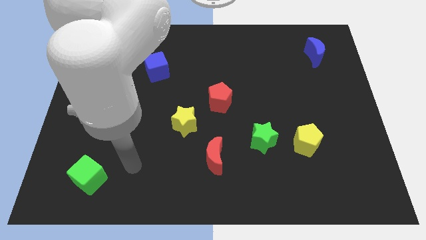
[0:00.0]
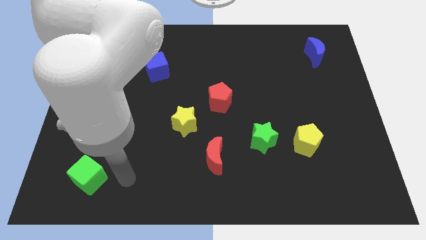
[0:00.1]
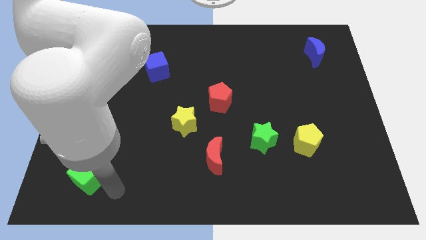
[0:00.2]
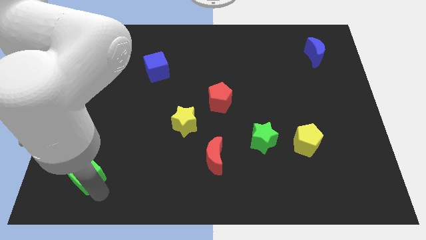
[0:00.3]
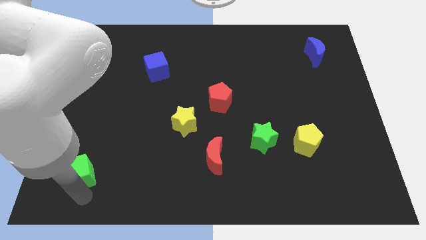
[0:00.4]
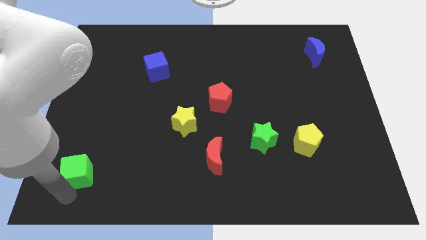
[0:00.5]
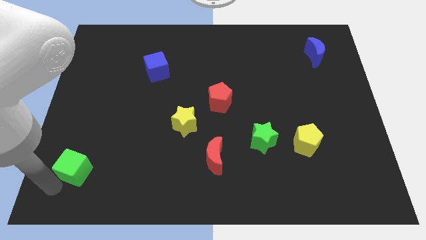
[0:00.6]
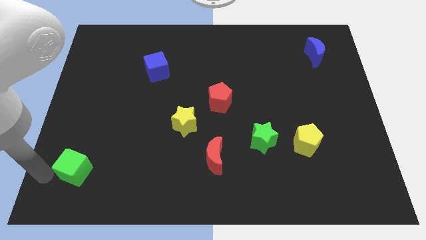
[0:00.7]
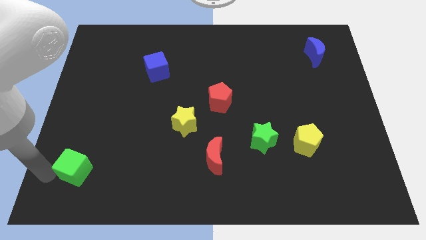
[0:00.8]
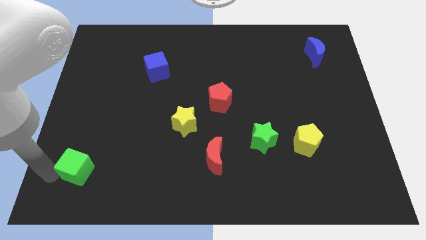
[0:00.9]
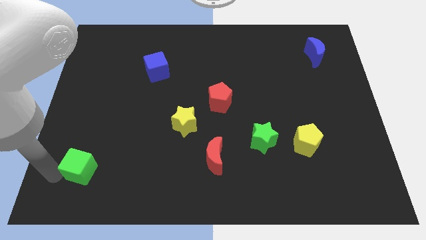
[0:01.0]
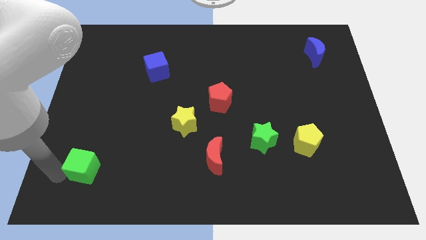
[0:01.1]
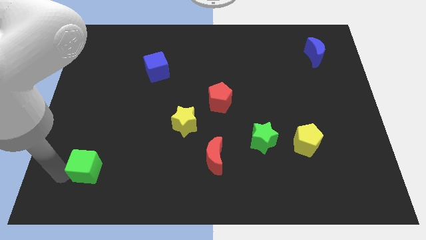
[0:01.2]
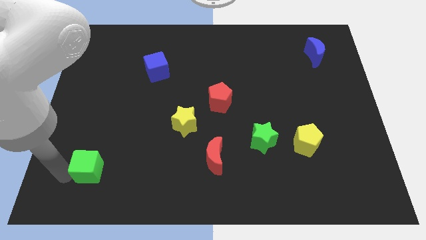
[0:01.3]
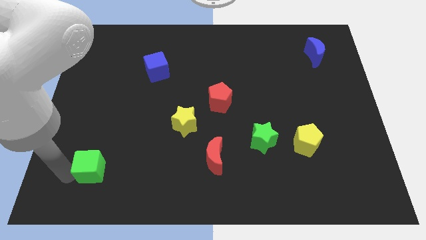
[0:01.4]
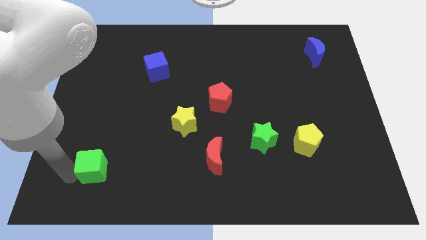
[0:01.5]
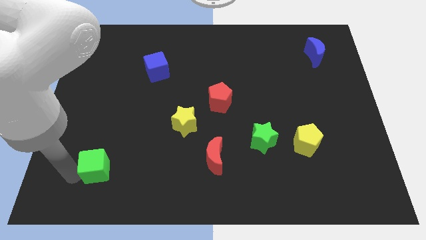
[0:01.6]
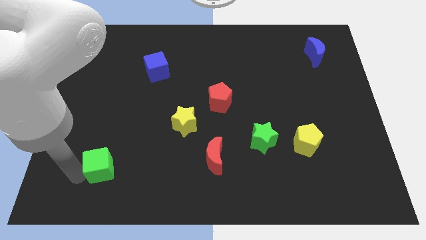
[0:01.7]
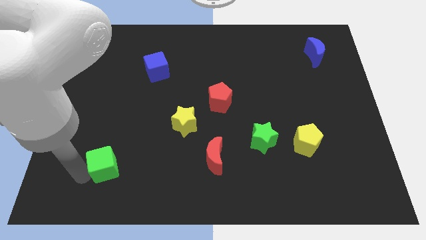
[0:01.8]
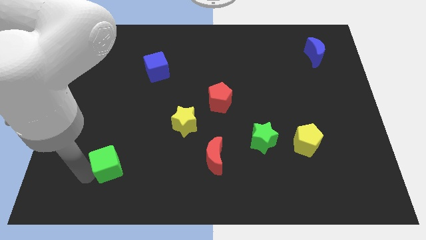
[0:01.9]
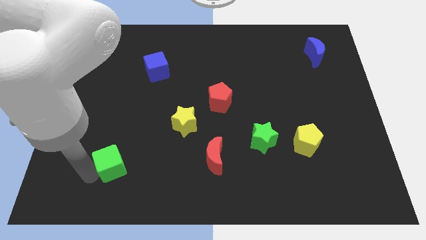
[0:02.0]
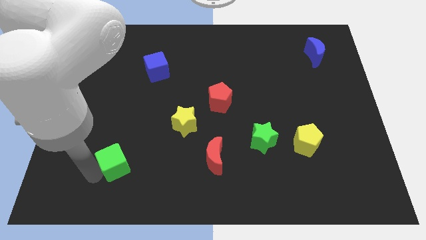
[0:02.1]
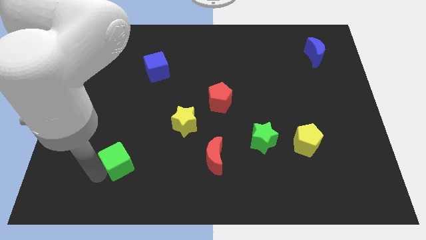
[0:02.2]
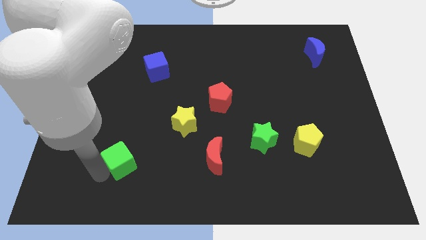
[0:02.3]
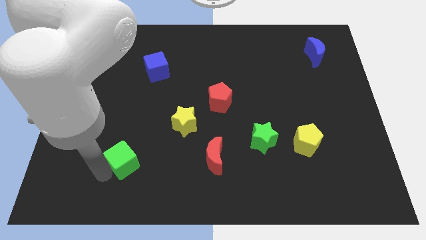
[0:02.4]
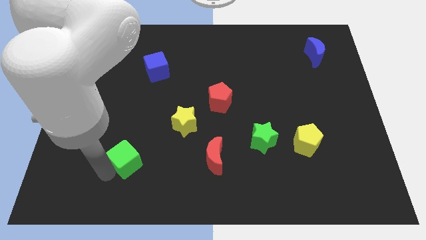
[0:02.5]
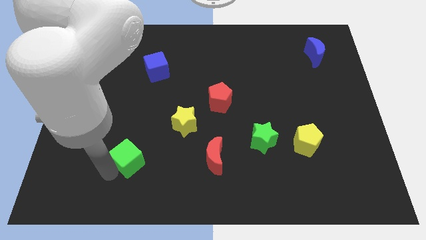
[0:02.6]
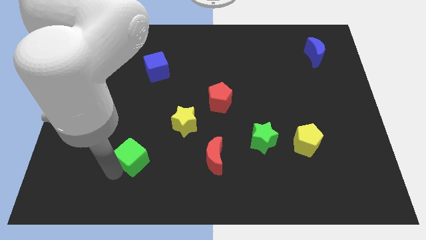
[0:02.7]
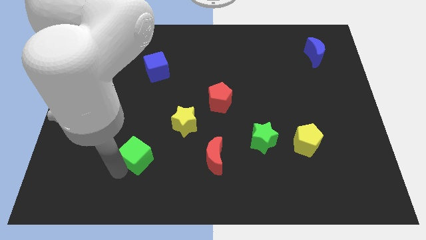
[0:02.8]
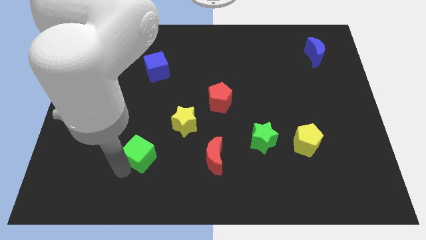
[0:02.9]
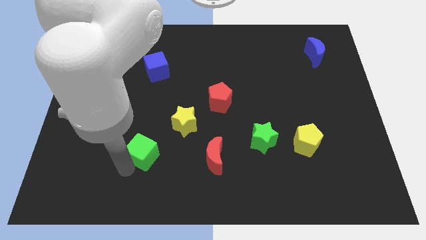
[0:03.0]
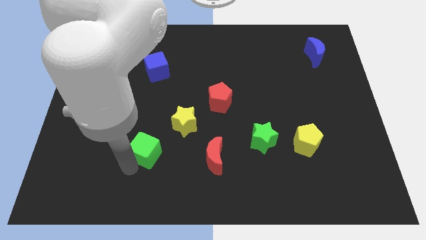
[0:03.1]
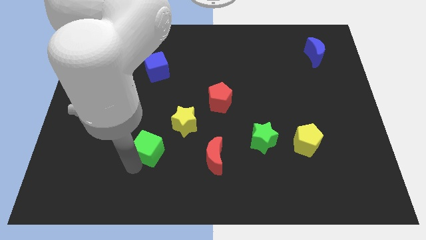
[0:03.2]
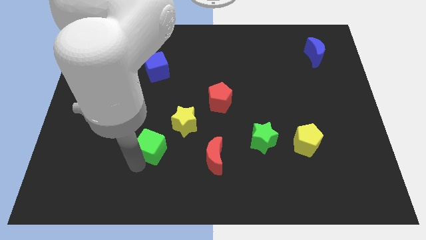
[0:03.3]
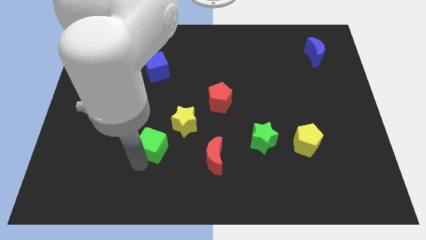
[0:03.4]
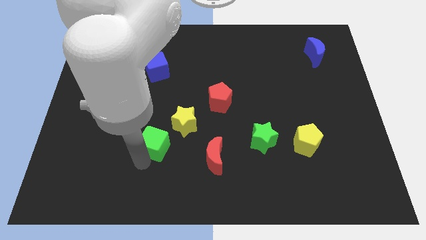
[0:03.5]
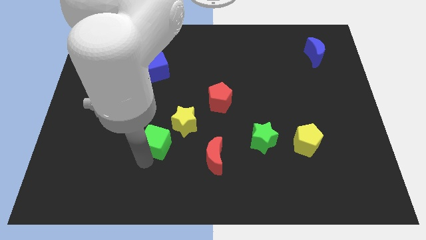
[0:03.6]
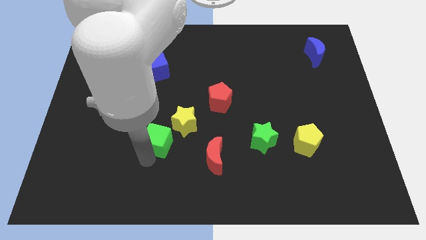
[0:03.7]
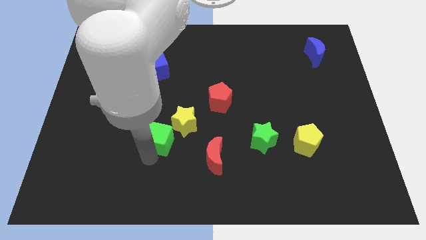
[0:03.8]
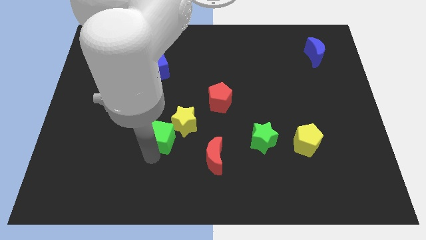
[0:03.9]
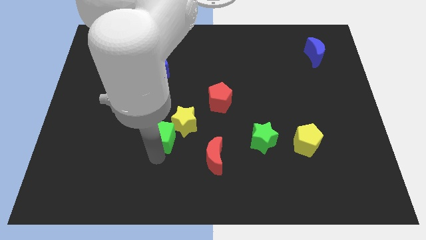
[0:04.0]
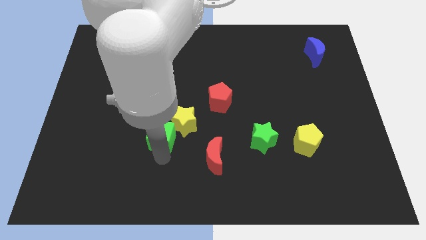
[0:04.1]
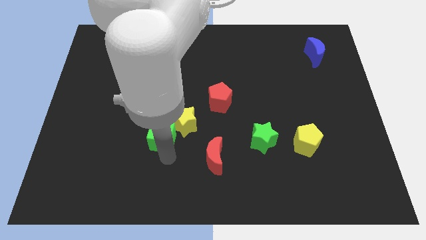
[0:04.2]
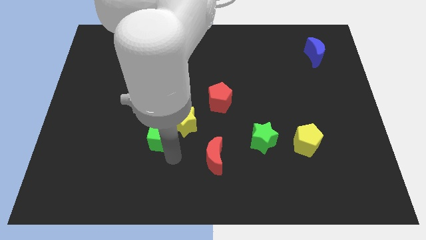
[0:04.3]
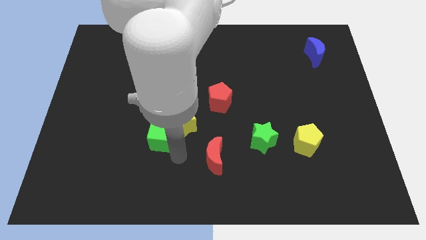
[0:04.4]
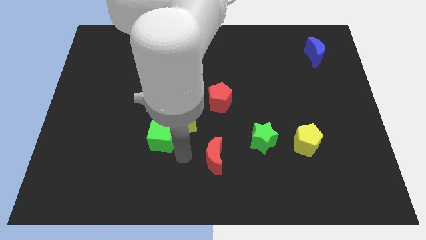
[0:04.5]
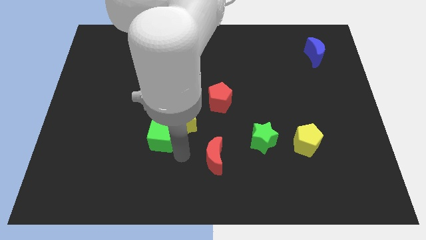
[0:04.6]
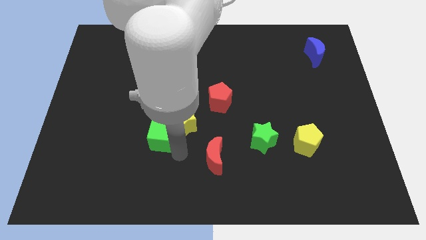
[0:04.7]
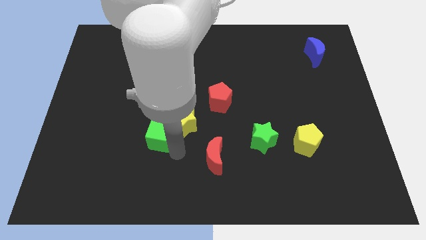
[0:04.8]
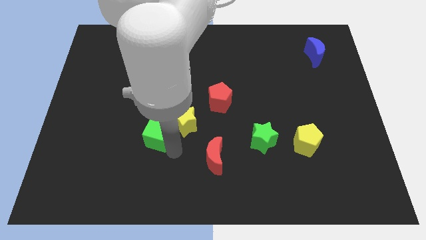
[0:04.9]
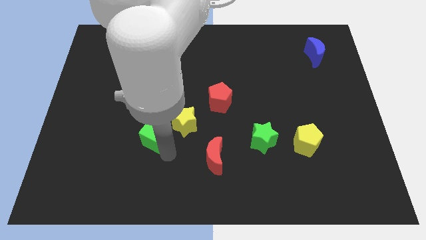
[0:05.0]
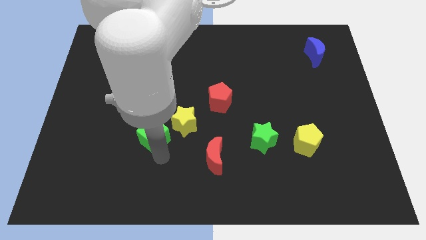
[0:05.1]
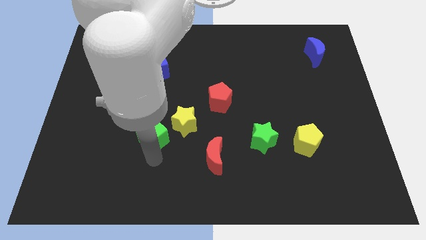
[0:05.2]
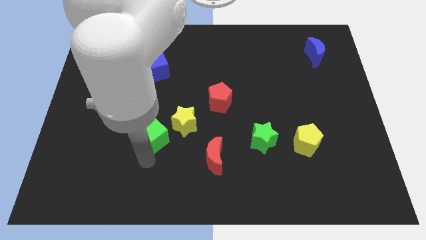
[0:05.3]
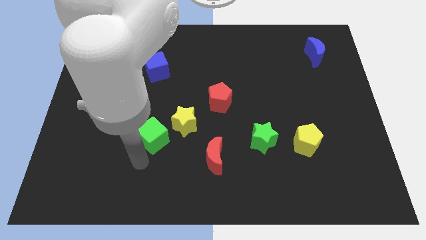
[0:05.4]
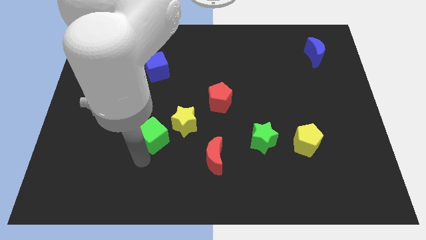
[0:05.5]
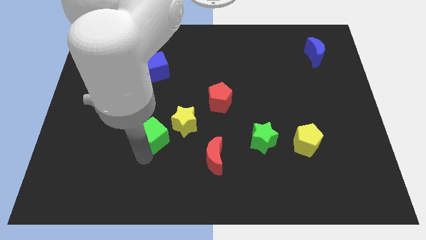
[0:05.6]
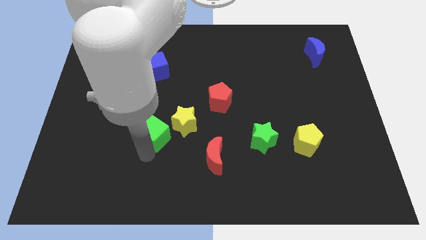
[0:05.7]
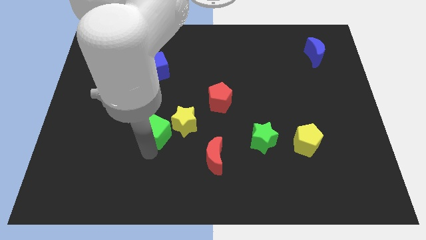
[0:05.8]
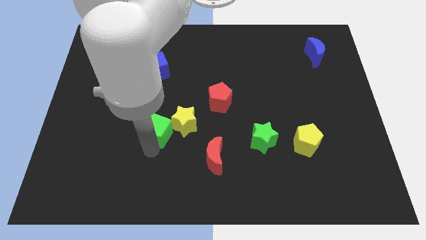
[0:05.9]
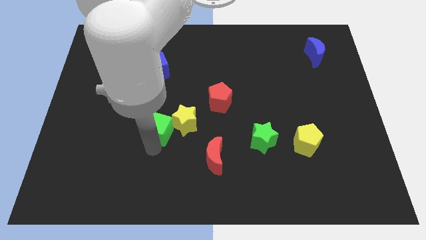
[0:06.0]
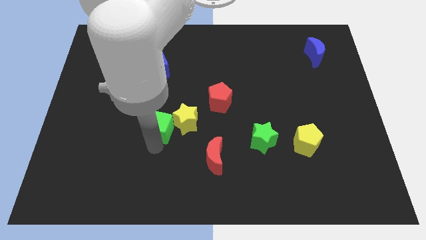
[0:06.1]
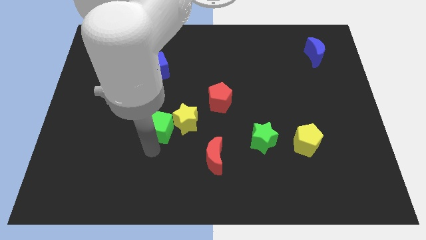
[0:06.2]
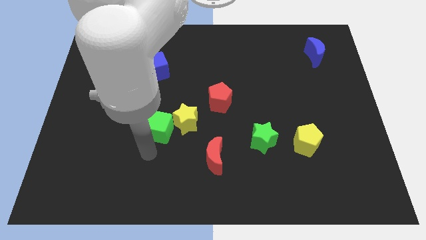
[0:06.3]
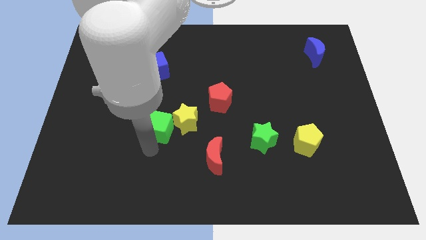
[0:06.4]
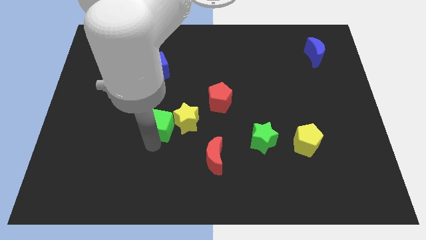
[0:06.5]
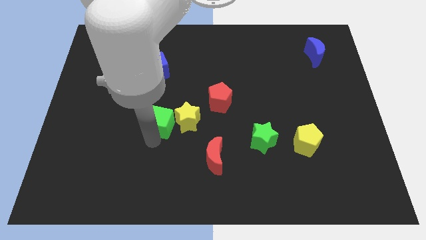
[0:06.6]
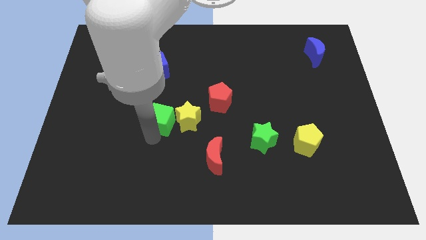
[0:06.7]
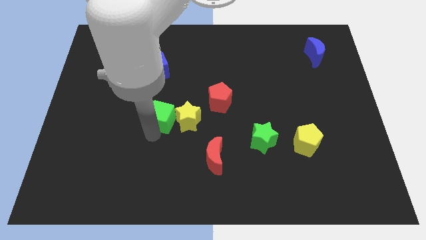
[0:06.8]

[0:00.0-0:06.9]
slide the green cube diagonally upwards and right

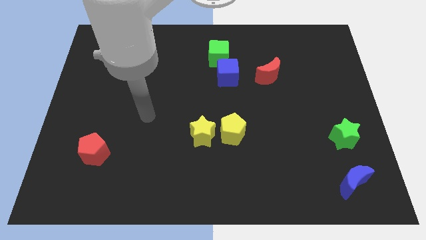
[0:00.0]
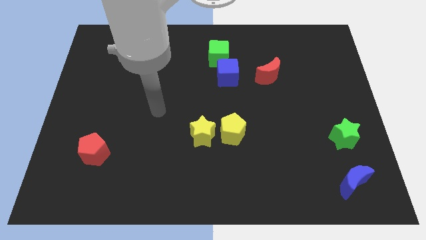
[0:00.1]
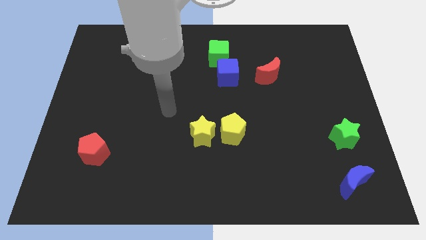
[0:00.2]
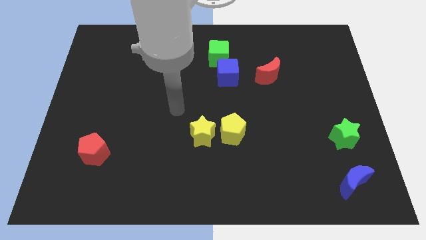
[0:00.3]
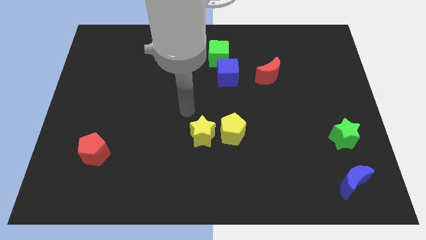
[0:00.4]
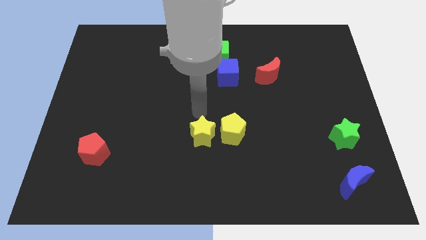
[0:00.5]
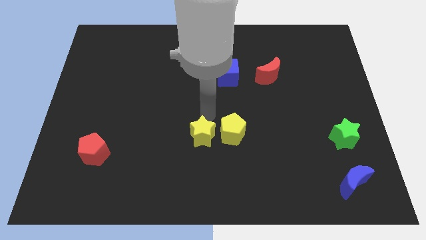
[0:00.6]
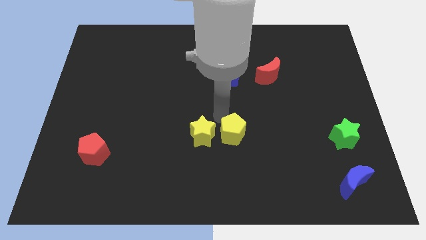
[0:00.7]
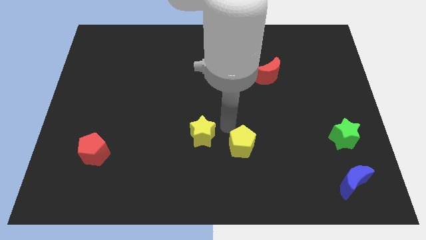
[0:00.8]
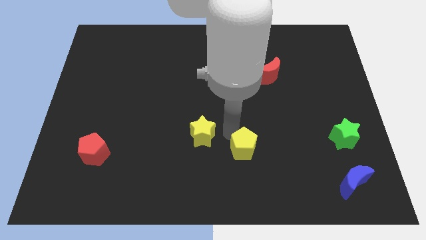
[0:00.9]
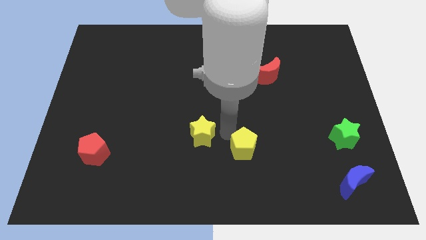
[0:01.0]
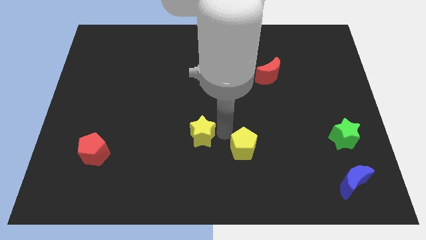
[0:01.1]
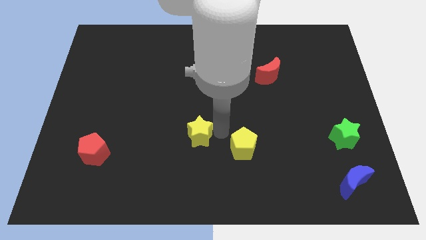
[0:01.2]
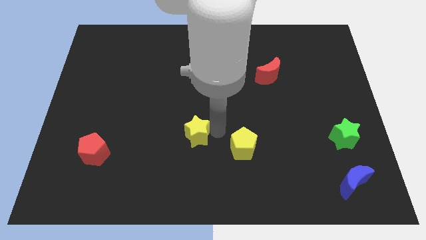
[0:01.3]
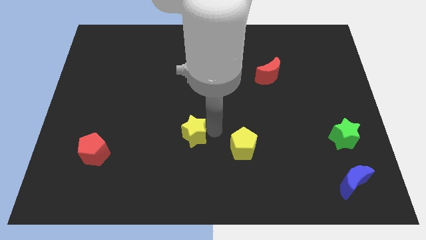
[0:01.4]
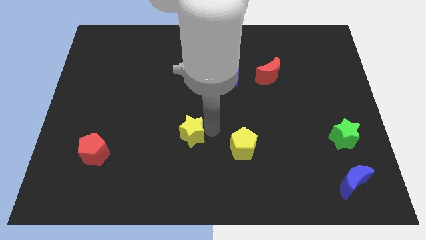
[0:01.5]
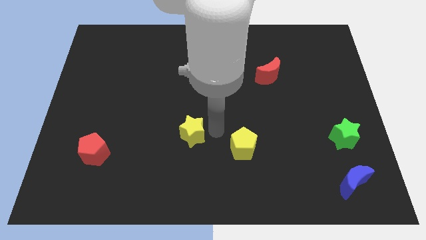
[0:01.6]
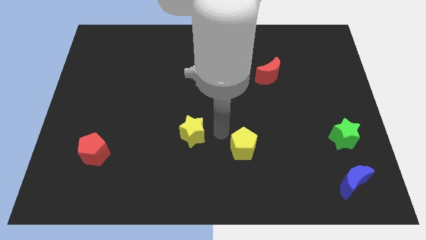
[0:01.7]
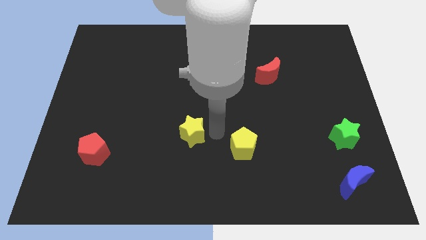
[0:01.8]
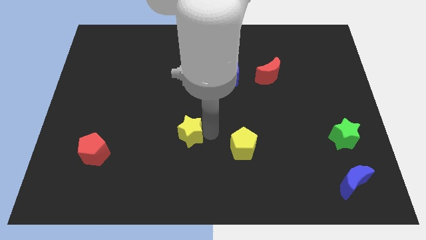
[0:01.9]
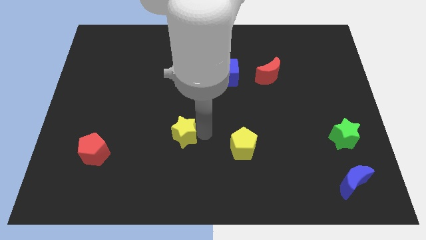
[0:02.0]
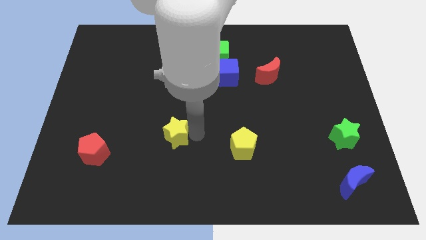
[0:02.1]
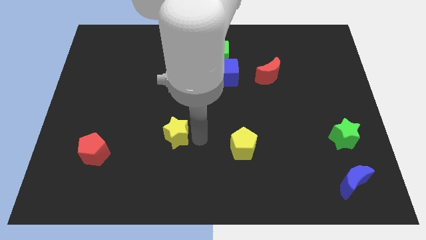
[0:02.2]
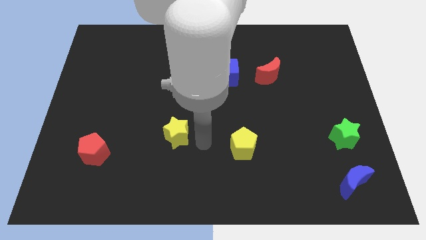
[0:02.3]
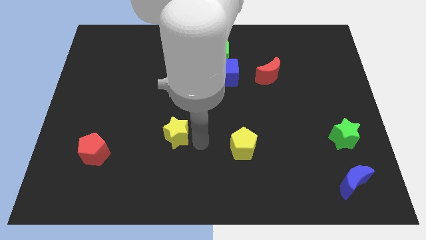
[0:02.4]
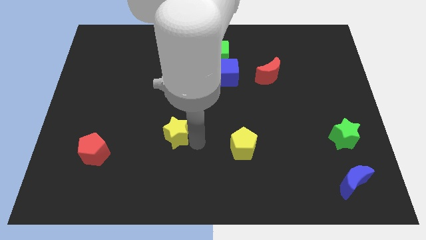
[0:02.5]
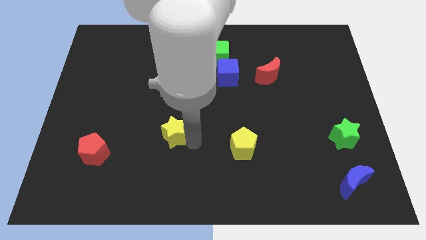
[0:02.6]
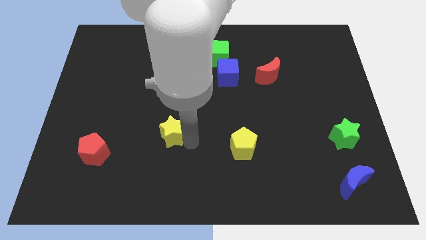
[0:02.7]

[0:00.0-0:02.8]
move the yellow star to the left a little bit
